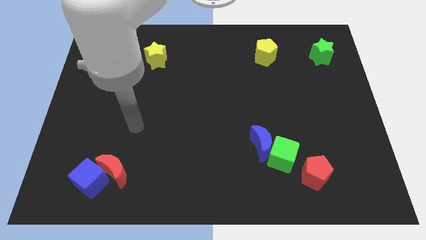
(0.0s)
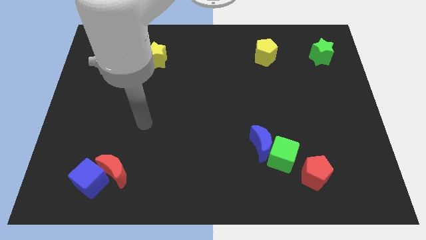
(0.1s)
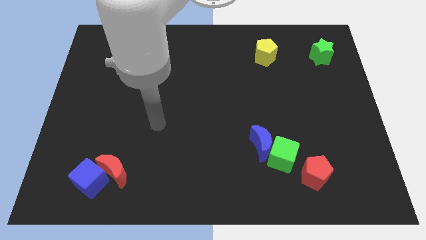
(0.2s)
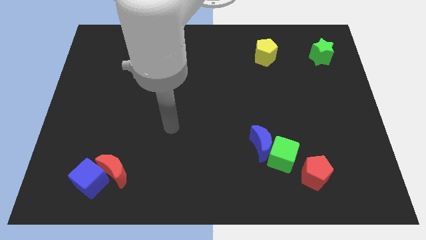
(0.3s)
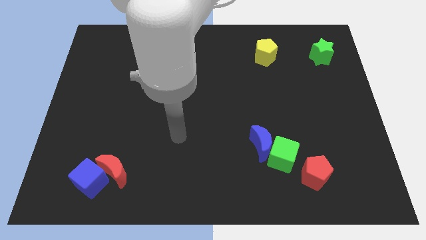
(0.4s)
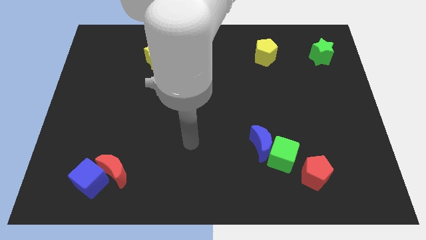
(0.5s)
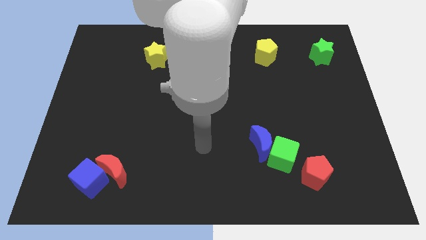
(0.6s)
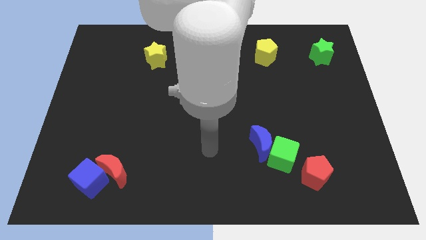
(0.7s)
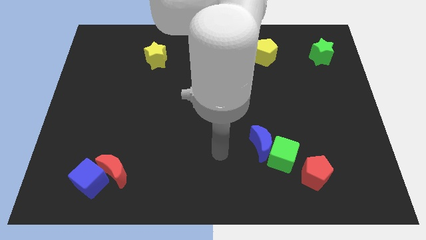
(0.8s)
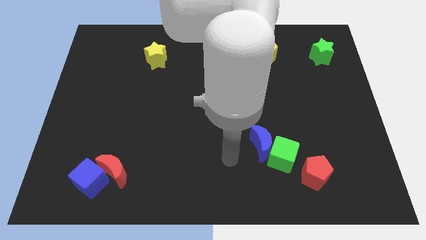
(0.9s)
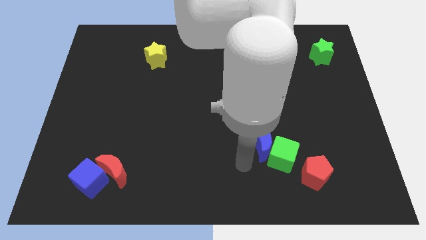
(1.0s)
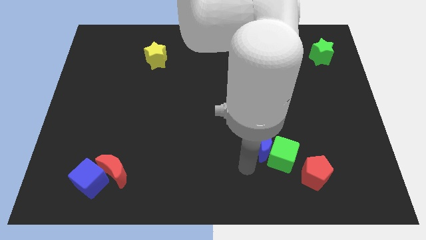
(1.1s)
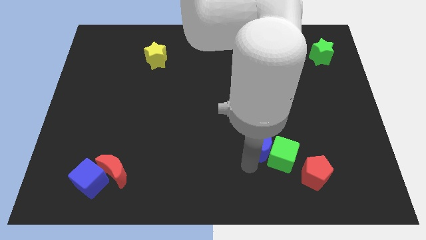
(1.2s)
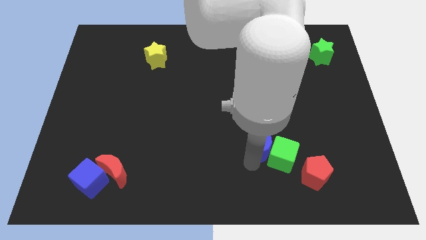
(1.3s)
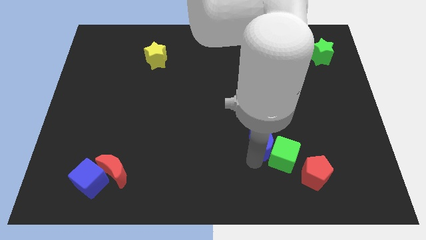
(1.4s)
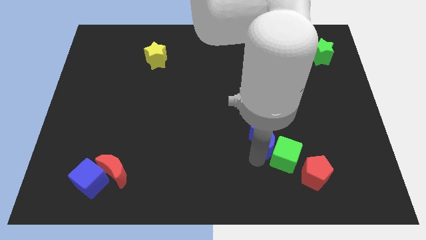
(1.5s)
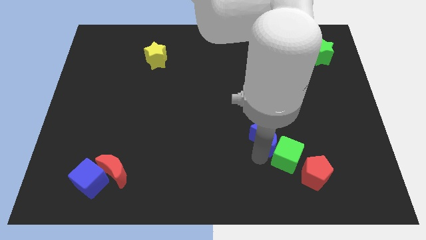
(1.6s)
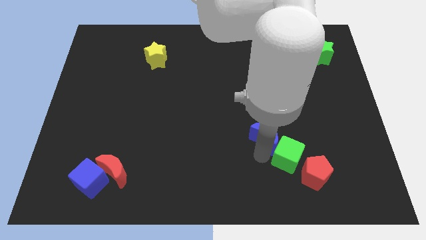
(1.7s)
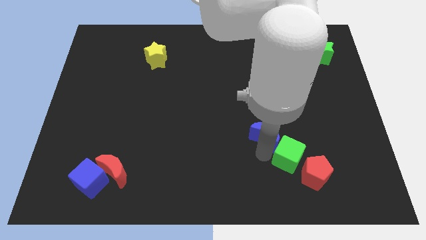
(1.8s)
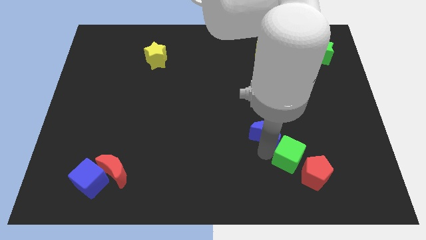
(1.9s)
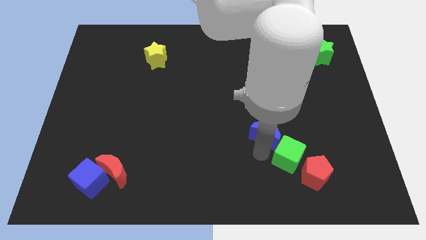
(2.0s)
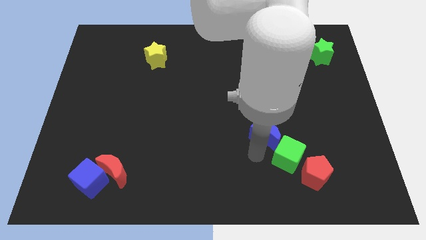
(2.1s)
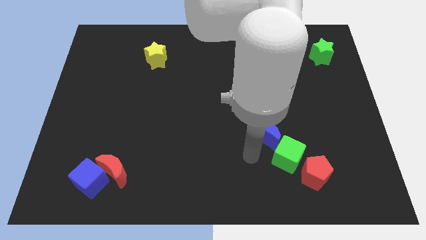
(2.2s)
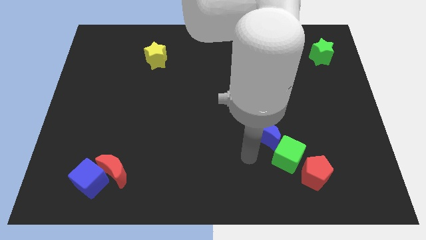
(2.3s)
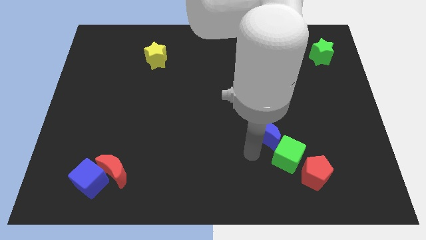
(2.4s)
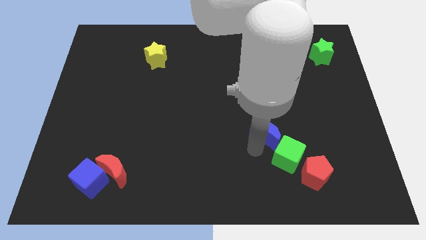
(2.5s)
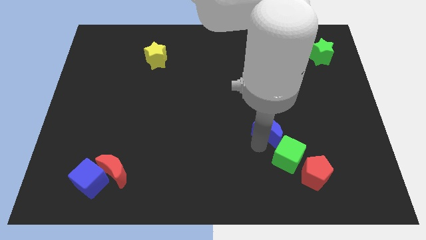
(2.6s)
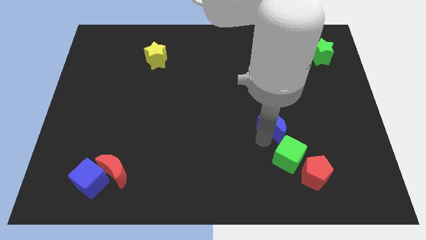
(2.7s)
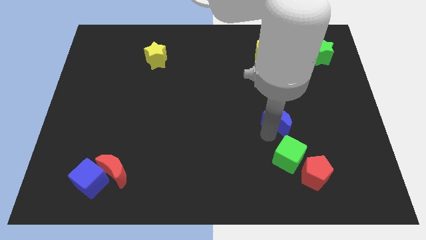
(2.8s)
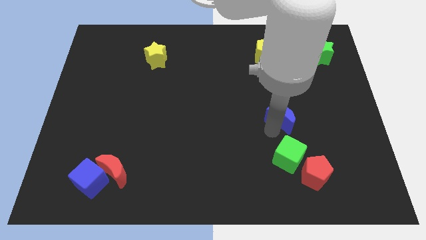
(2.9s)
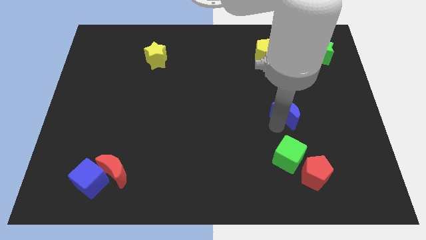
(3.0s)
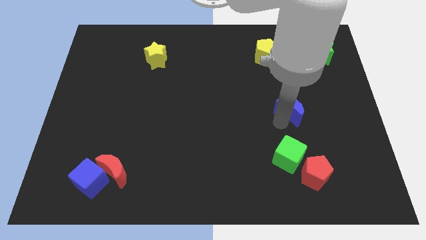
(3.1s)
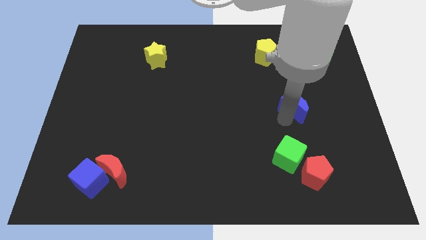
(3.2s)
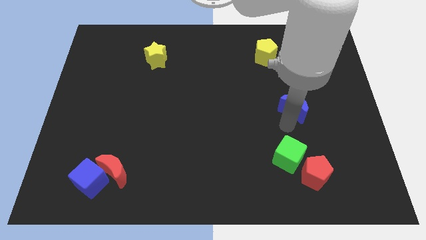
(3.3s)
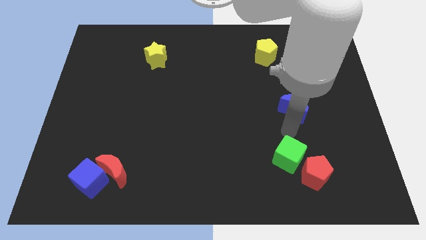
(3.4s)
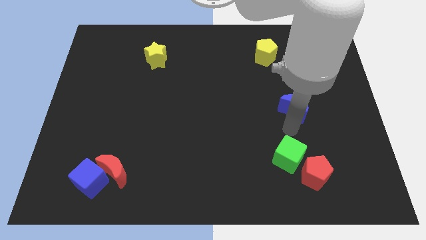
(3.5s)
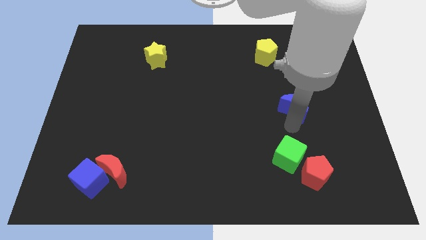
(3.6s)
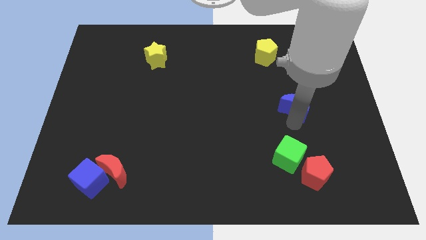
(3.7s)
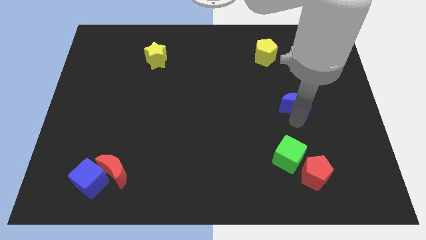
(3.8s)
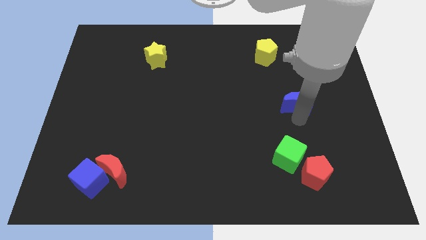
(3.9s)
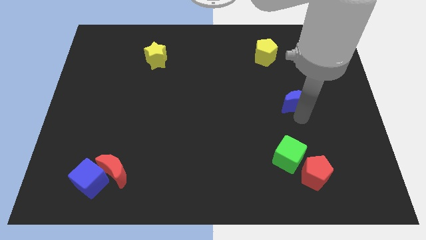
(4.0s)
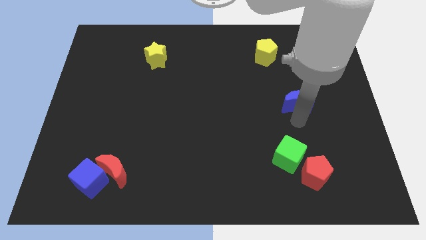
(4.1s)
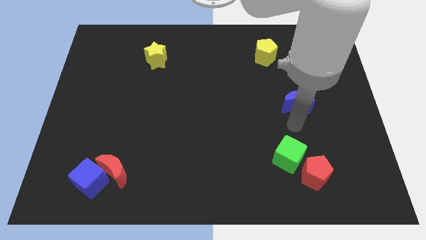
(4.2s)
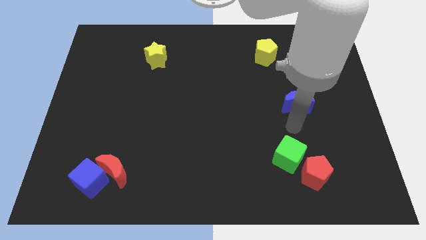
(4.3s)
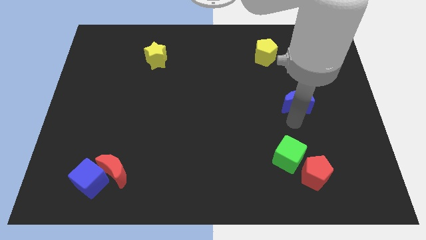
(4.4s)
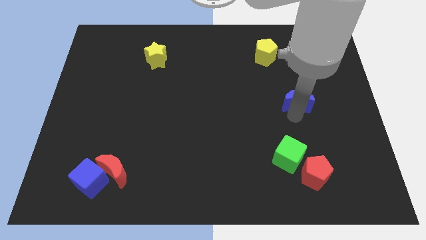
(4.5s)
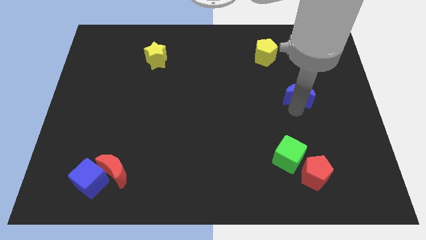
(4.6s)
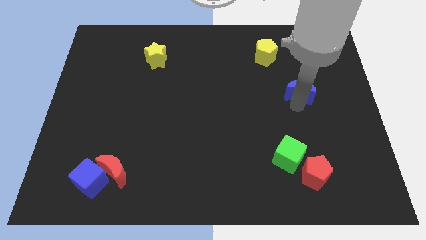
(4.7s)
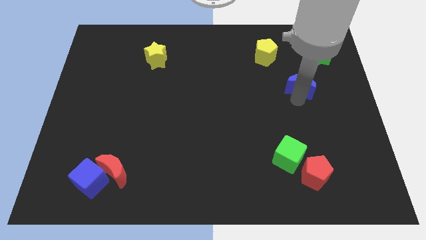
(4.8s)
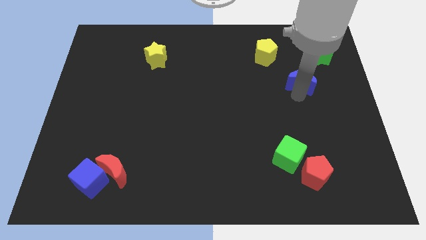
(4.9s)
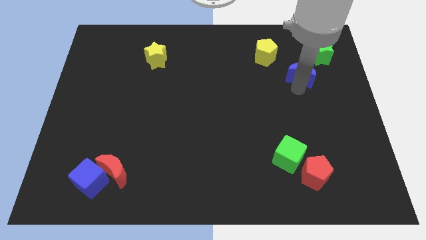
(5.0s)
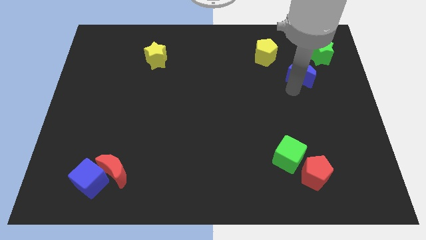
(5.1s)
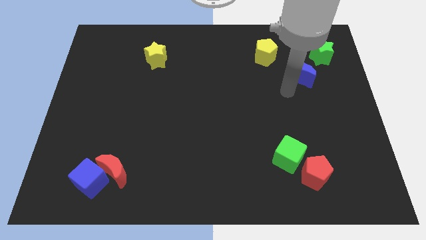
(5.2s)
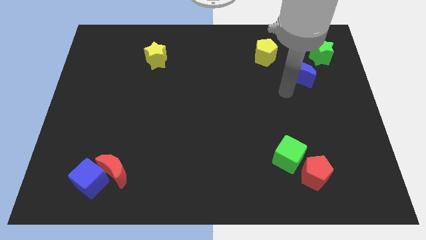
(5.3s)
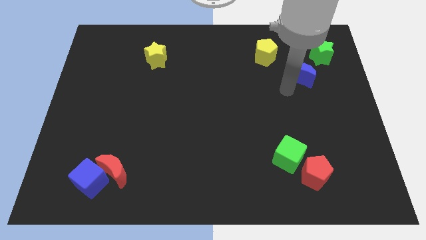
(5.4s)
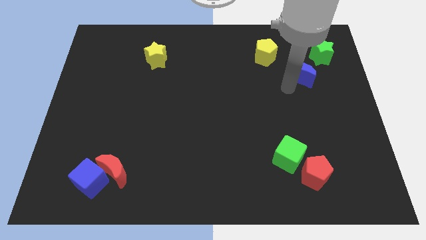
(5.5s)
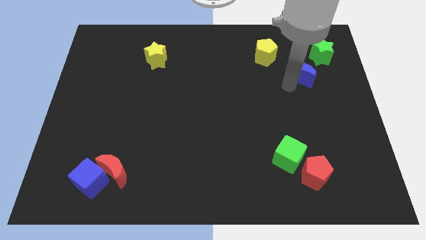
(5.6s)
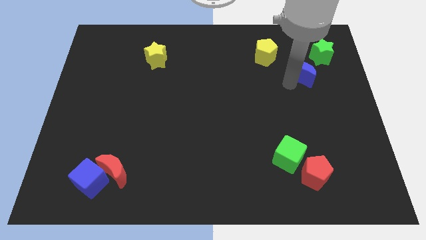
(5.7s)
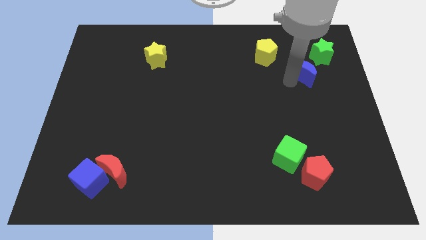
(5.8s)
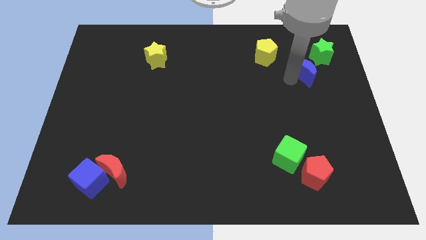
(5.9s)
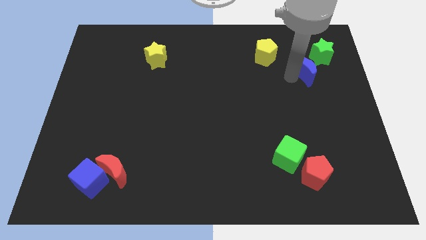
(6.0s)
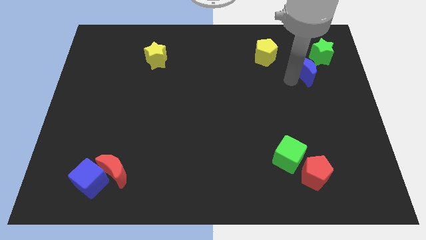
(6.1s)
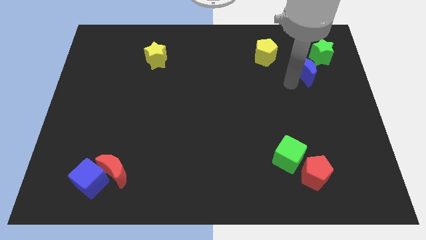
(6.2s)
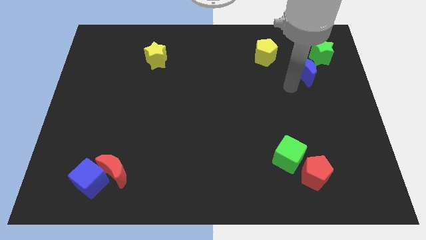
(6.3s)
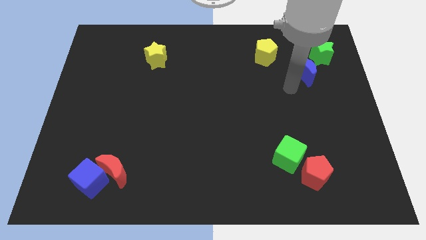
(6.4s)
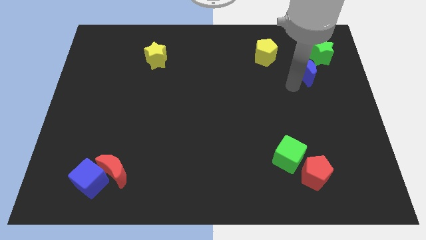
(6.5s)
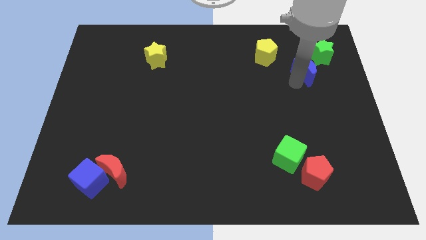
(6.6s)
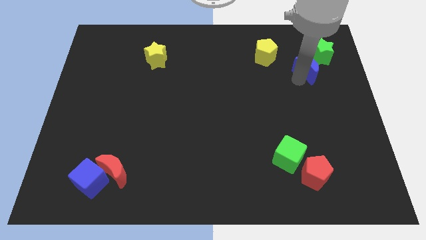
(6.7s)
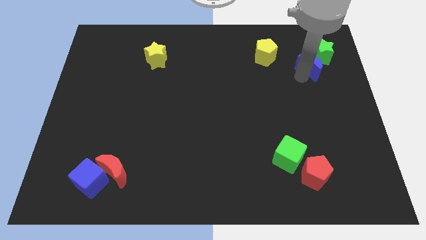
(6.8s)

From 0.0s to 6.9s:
push the blue moon towards the green star
